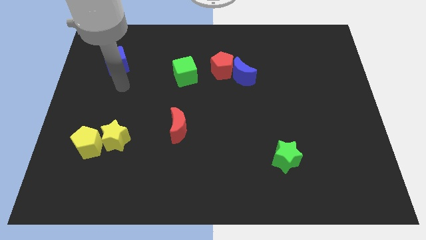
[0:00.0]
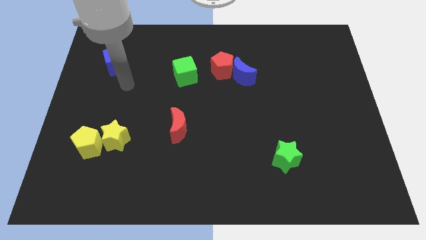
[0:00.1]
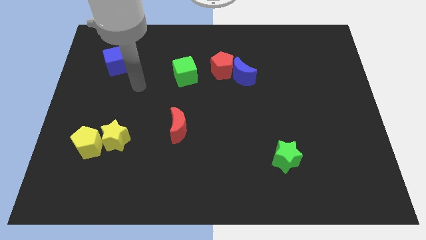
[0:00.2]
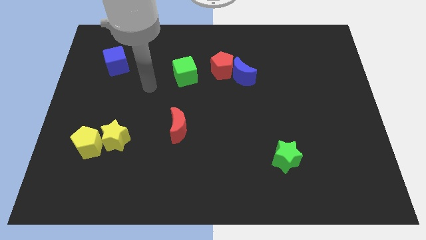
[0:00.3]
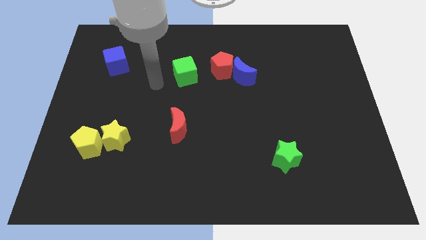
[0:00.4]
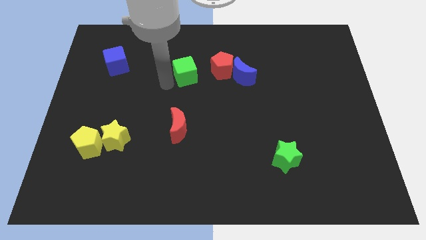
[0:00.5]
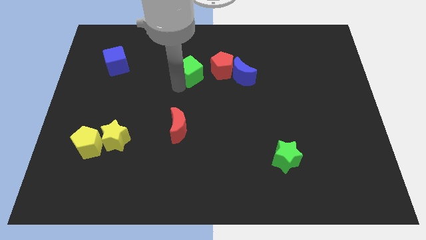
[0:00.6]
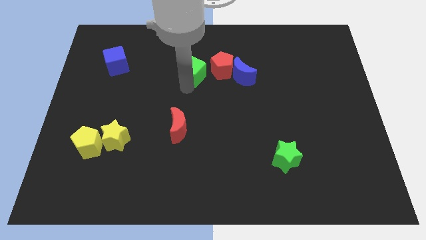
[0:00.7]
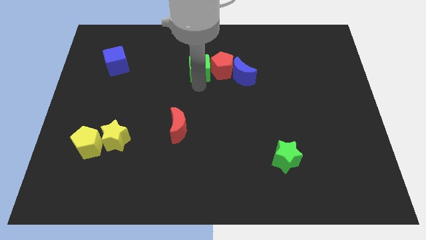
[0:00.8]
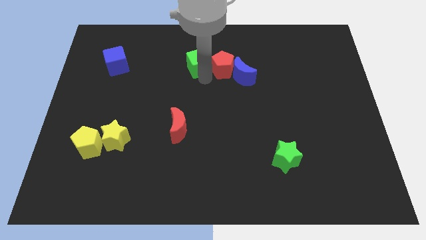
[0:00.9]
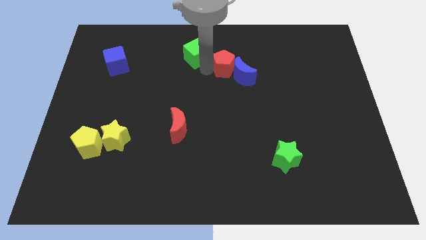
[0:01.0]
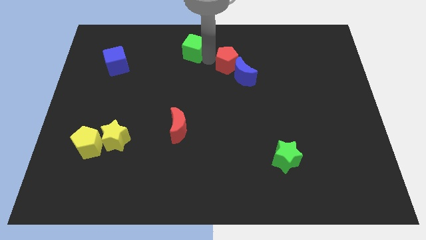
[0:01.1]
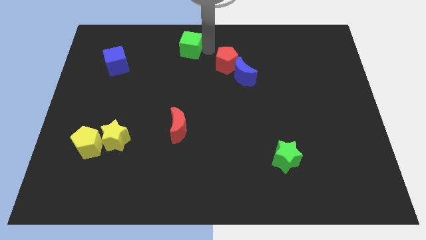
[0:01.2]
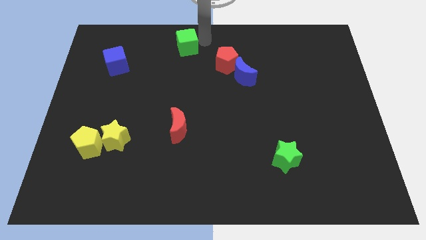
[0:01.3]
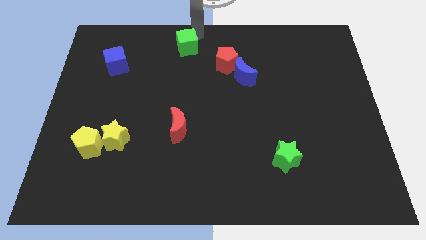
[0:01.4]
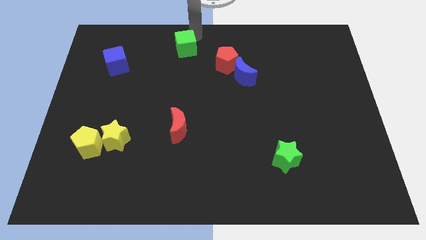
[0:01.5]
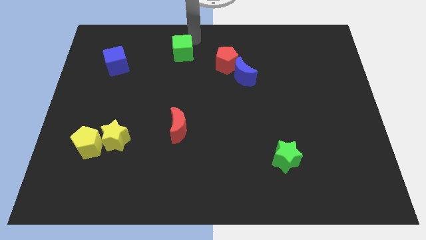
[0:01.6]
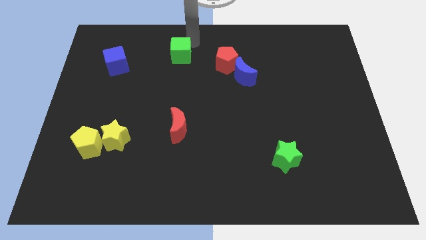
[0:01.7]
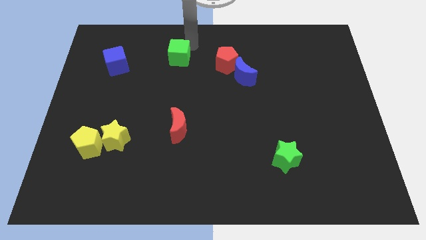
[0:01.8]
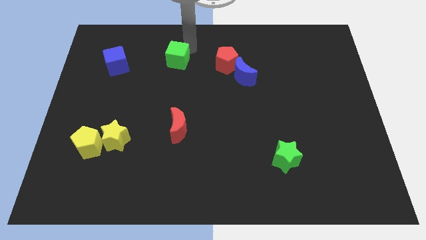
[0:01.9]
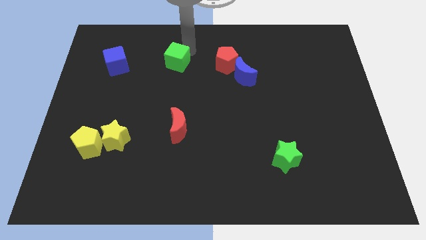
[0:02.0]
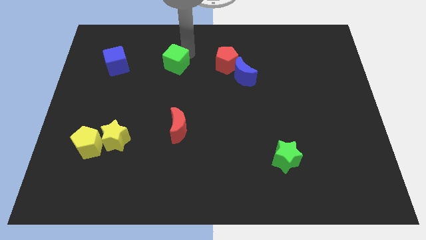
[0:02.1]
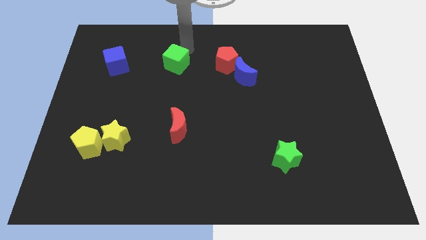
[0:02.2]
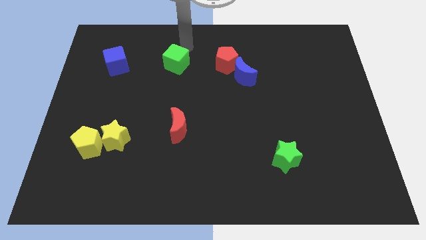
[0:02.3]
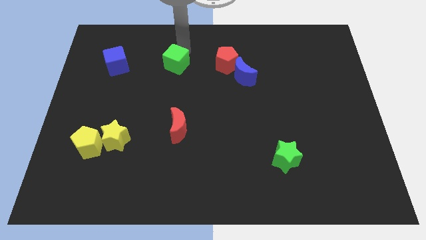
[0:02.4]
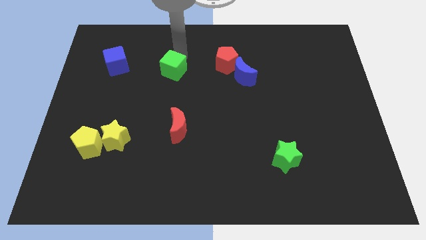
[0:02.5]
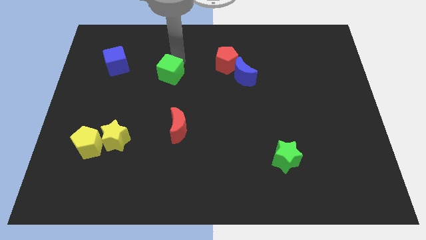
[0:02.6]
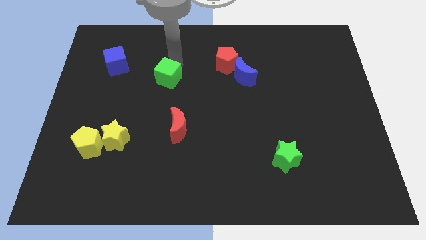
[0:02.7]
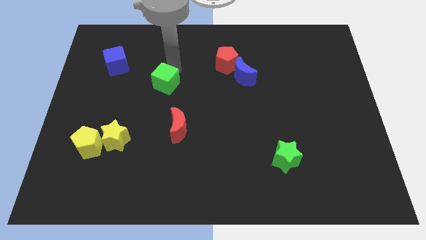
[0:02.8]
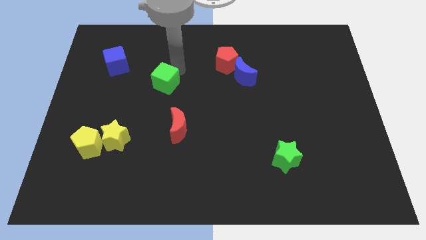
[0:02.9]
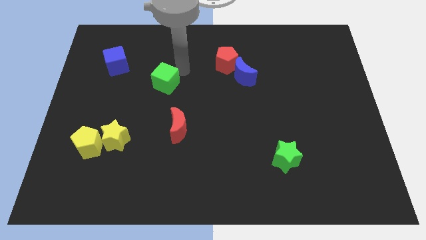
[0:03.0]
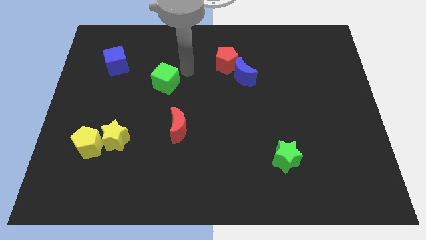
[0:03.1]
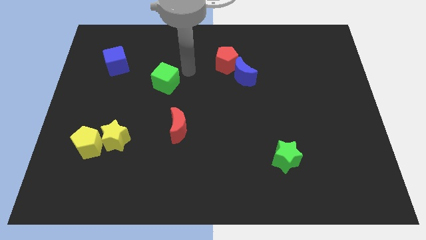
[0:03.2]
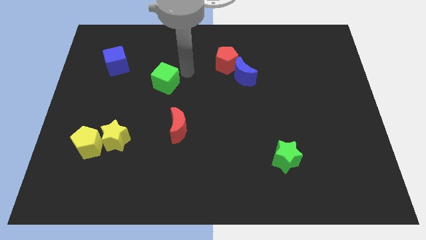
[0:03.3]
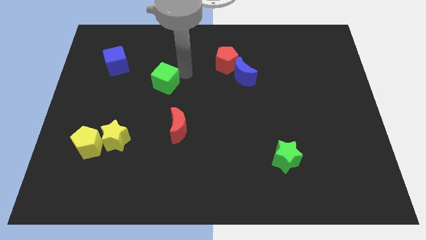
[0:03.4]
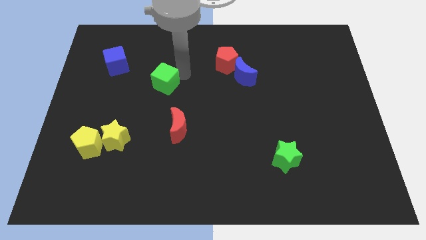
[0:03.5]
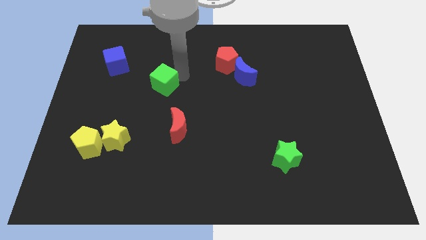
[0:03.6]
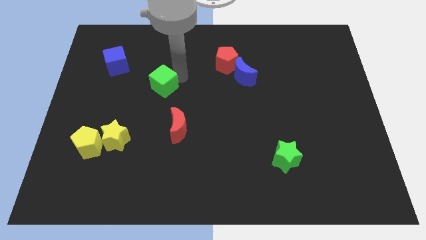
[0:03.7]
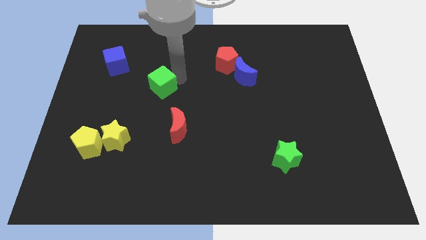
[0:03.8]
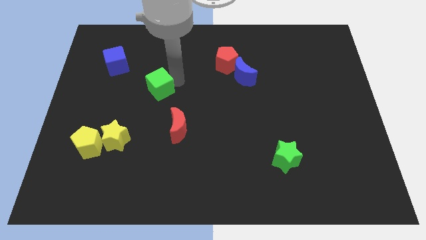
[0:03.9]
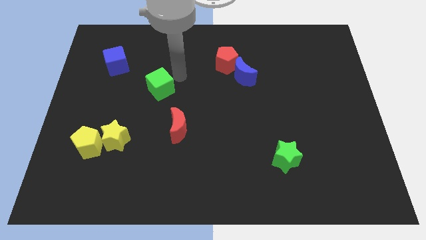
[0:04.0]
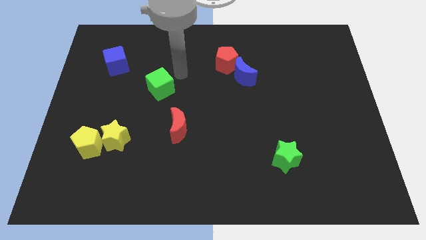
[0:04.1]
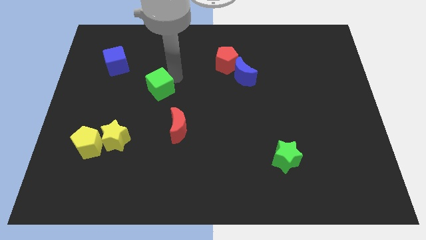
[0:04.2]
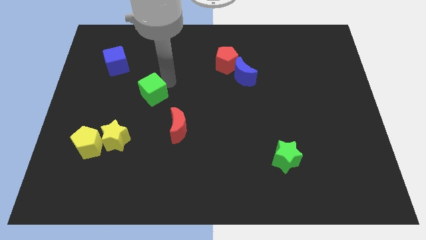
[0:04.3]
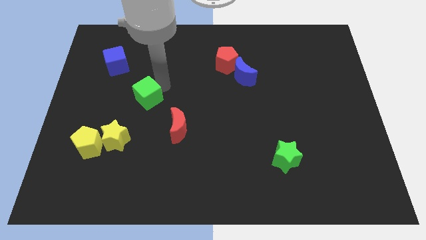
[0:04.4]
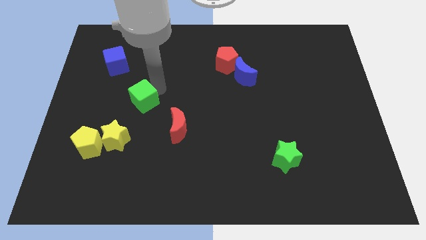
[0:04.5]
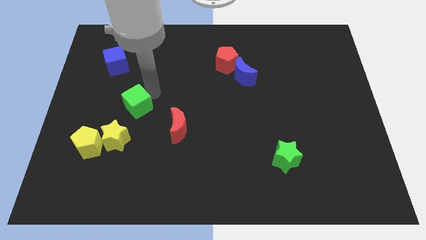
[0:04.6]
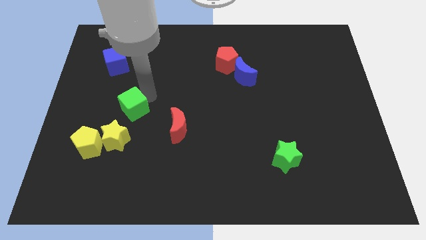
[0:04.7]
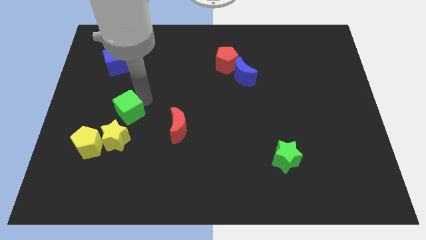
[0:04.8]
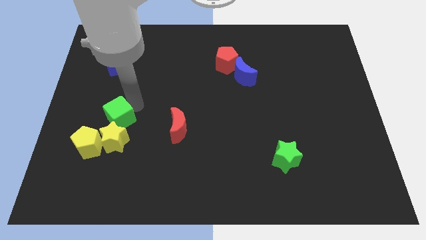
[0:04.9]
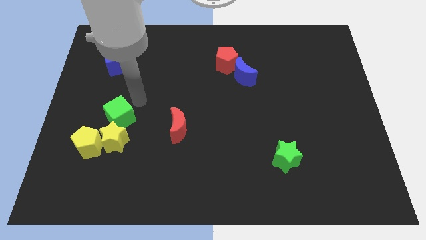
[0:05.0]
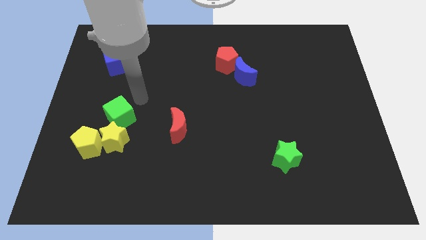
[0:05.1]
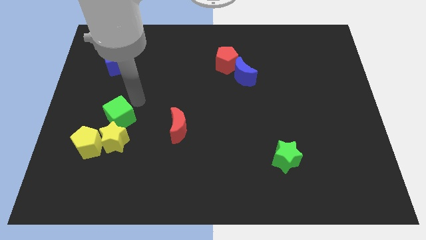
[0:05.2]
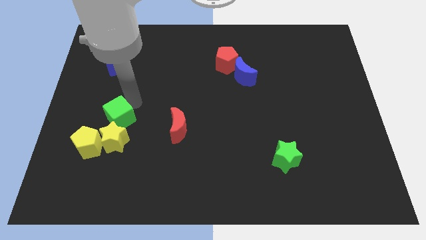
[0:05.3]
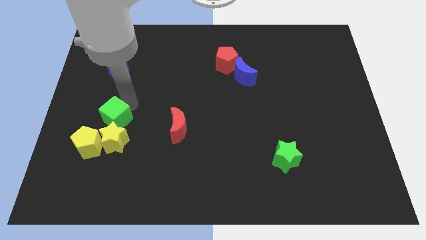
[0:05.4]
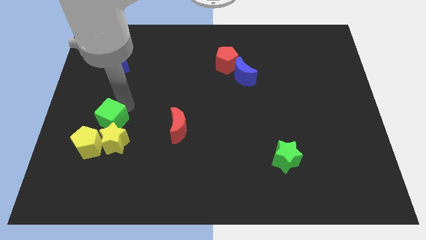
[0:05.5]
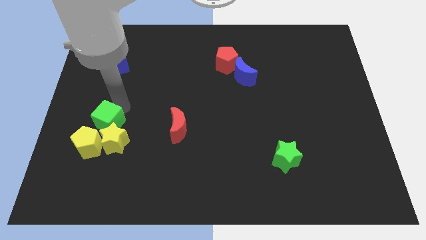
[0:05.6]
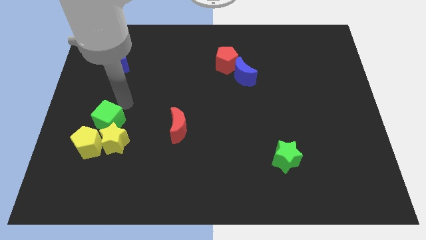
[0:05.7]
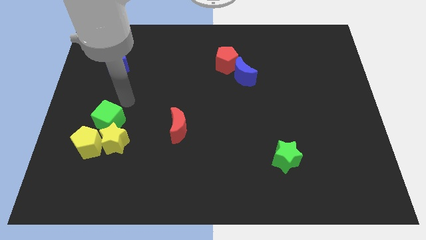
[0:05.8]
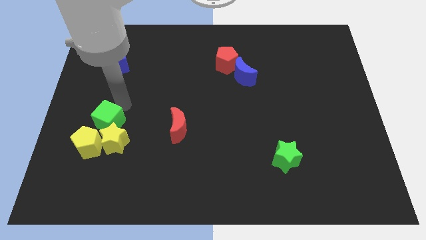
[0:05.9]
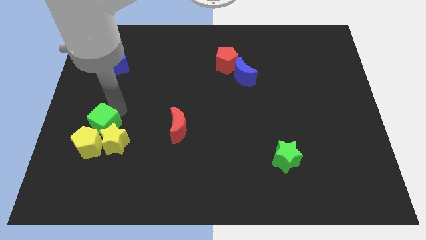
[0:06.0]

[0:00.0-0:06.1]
move the green cube close to the yellow pentagon

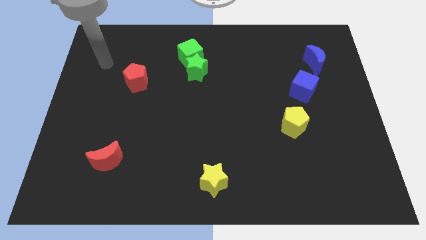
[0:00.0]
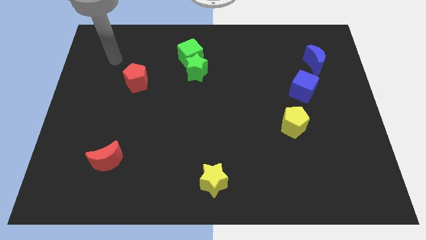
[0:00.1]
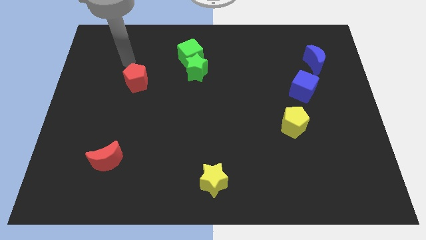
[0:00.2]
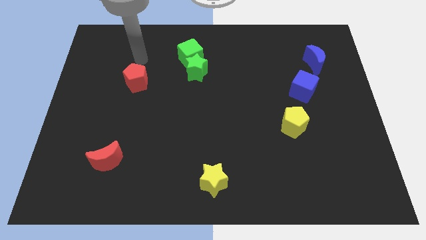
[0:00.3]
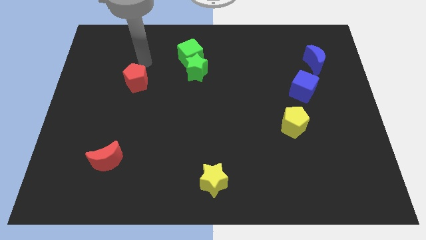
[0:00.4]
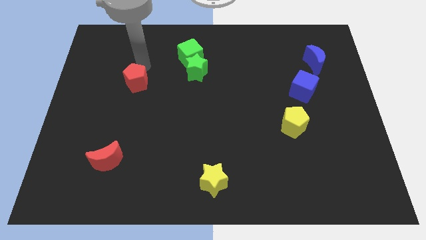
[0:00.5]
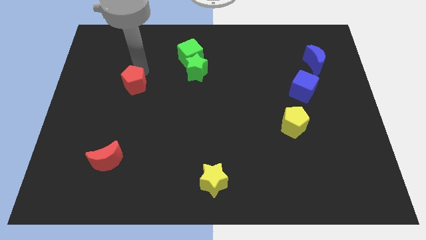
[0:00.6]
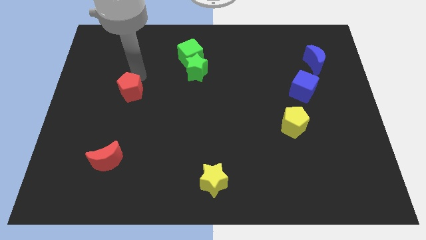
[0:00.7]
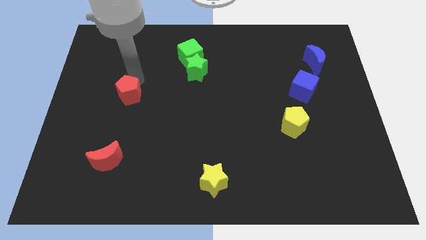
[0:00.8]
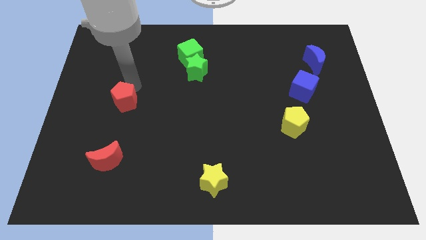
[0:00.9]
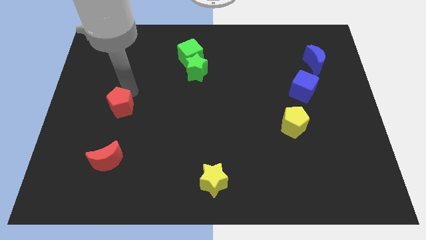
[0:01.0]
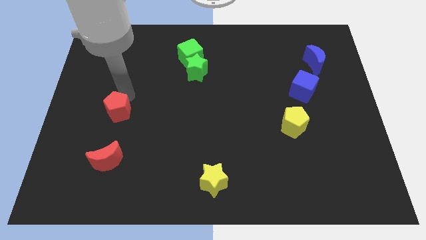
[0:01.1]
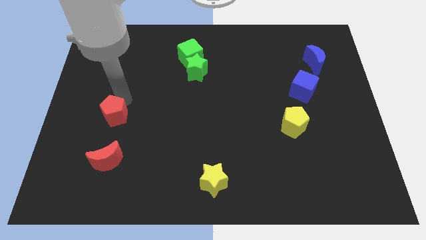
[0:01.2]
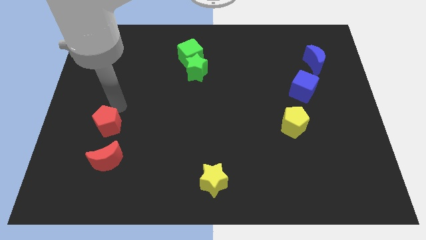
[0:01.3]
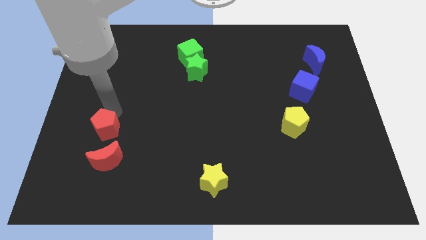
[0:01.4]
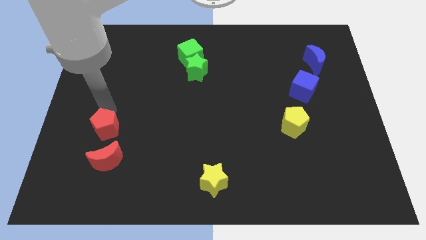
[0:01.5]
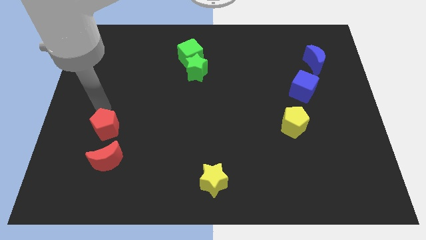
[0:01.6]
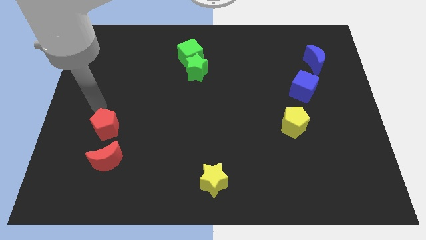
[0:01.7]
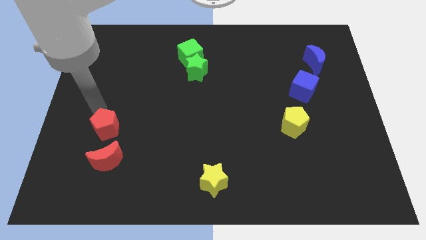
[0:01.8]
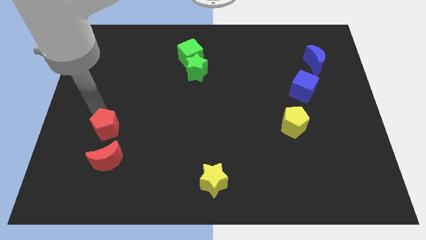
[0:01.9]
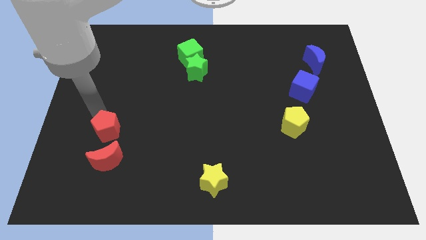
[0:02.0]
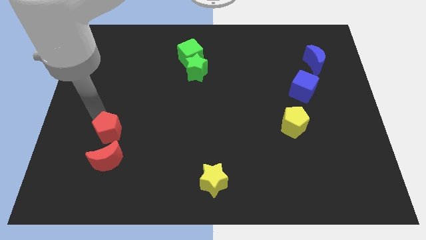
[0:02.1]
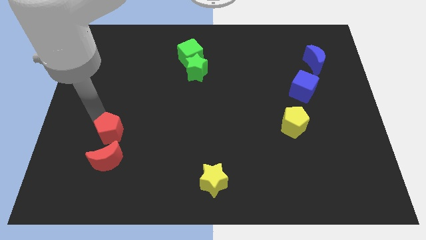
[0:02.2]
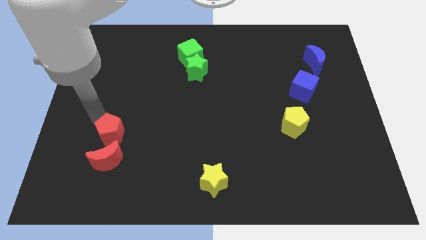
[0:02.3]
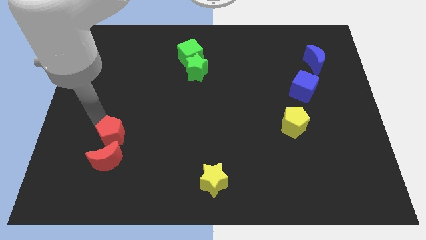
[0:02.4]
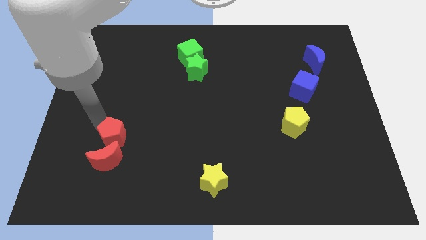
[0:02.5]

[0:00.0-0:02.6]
move the red pentagon next to the red moon
